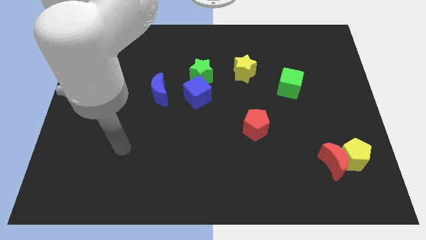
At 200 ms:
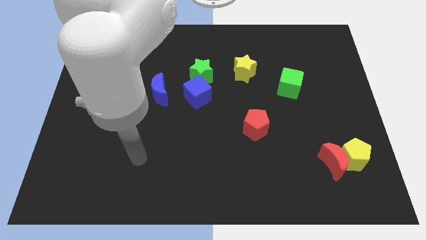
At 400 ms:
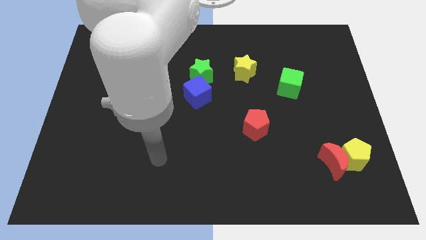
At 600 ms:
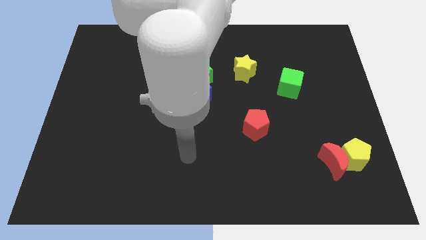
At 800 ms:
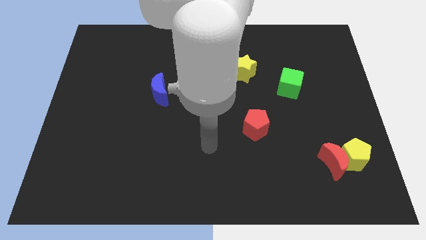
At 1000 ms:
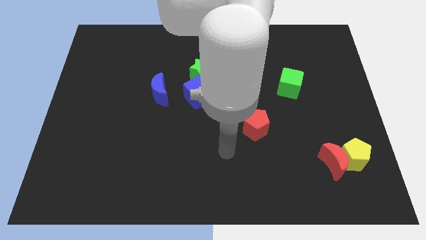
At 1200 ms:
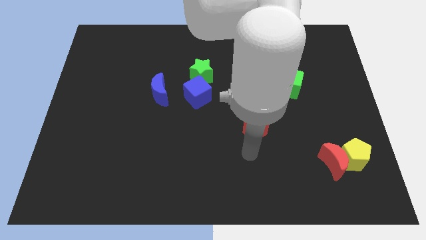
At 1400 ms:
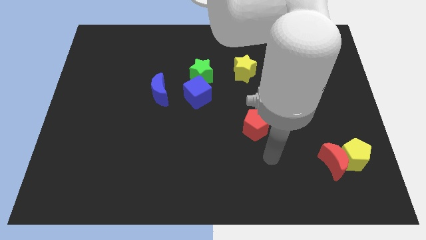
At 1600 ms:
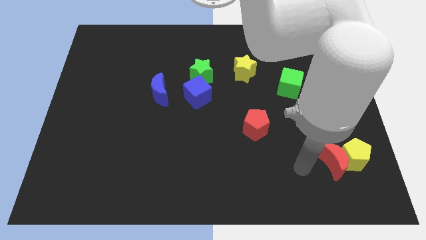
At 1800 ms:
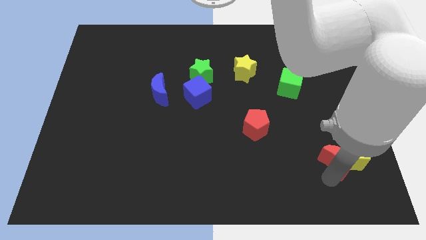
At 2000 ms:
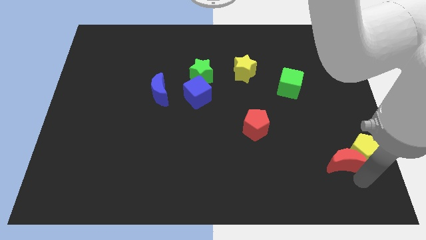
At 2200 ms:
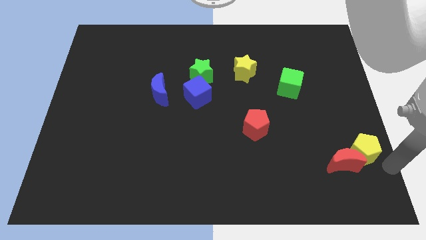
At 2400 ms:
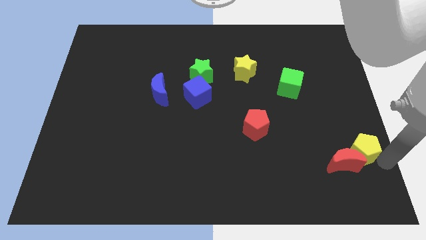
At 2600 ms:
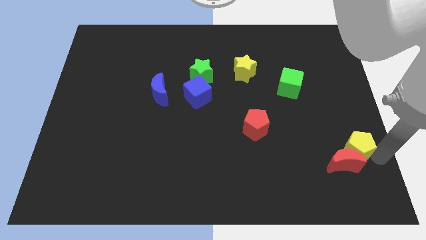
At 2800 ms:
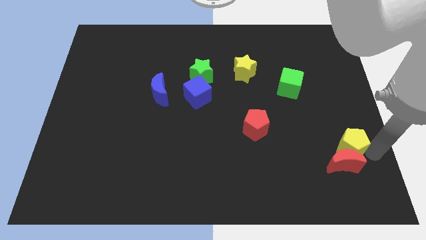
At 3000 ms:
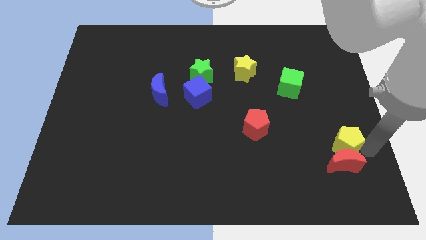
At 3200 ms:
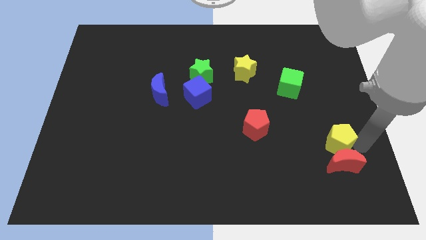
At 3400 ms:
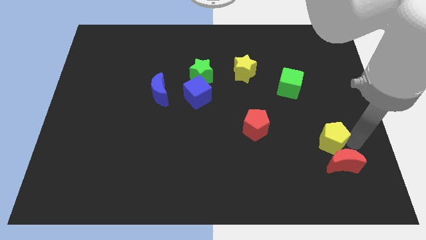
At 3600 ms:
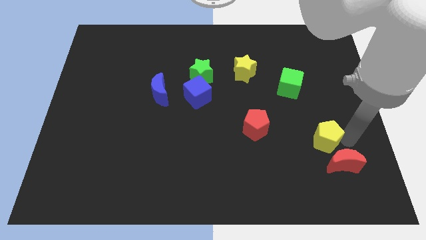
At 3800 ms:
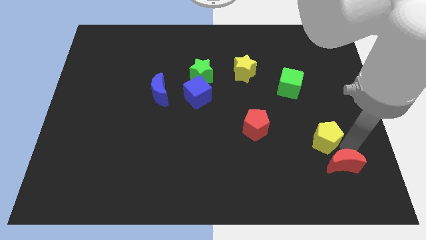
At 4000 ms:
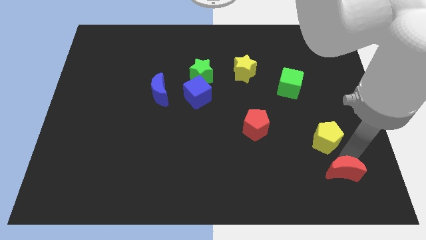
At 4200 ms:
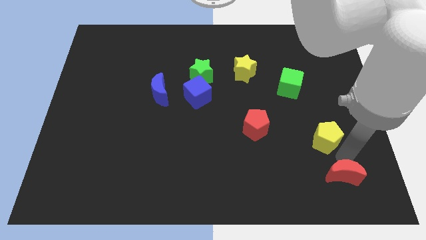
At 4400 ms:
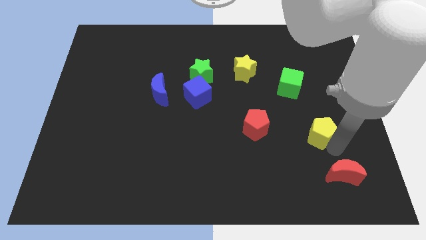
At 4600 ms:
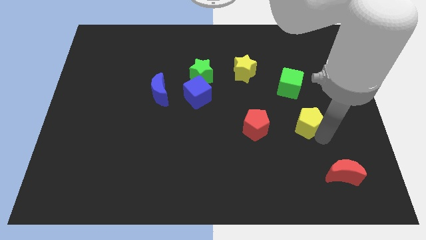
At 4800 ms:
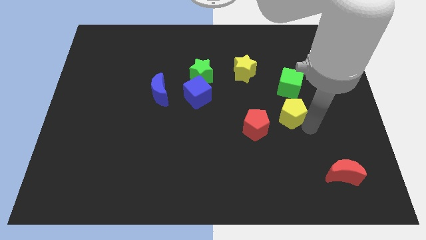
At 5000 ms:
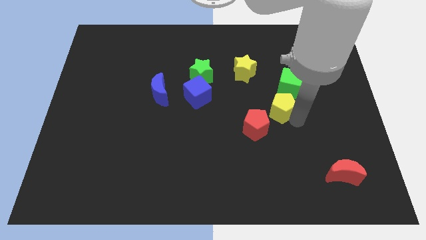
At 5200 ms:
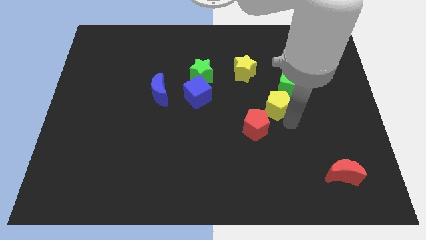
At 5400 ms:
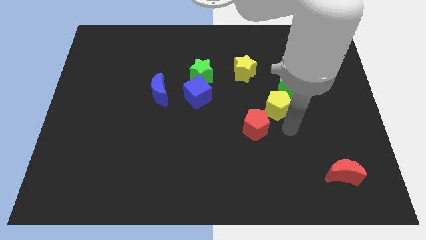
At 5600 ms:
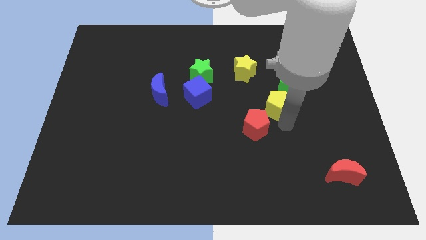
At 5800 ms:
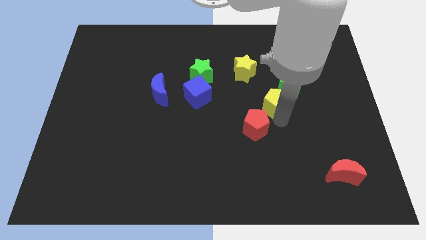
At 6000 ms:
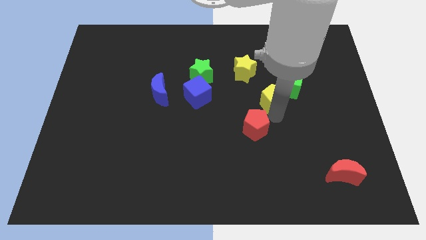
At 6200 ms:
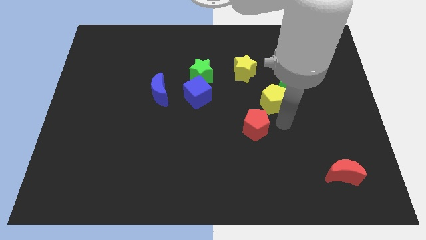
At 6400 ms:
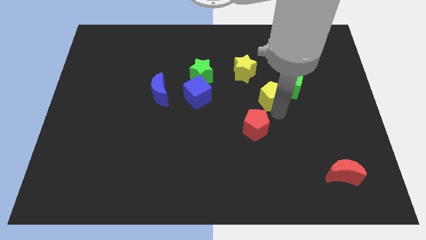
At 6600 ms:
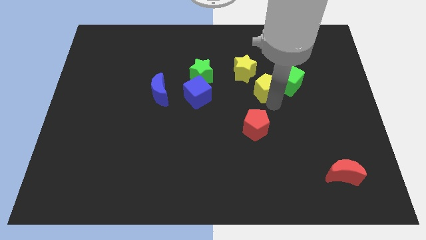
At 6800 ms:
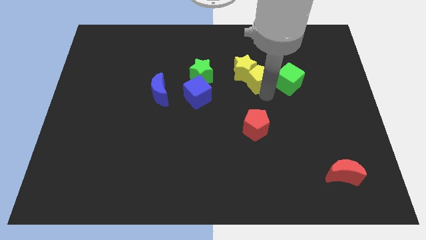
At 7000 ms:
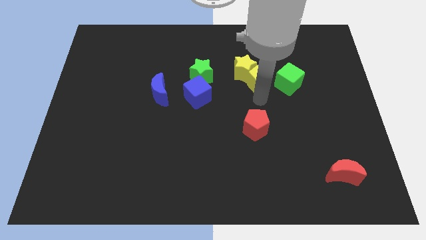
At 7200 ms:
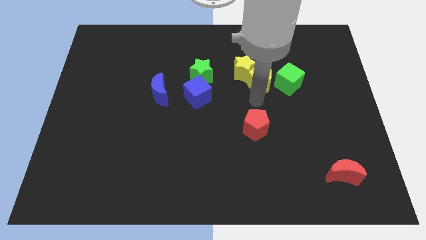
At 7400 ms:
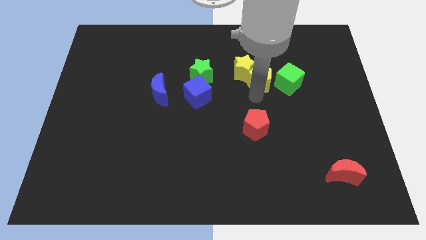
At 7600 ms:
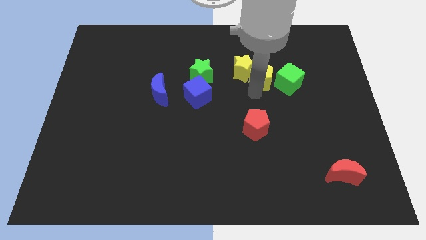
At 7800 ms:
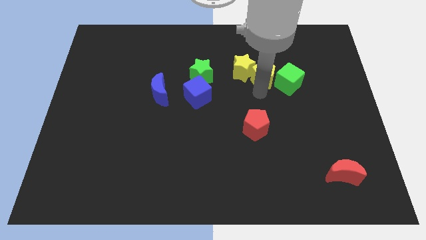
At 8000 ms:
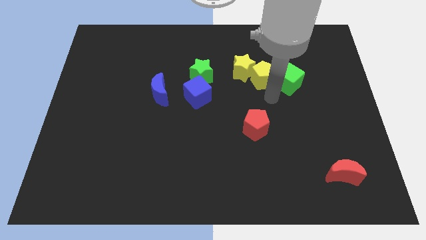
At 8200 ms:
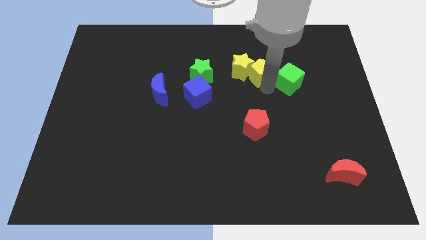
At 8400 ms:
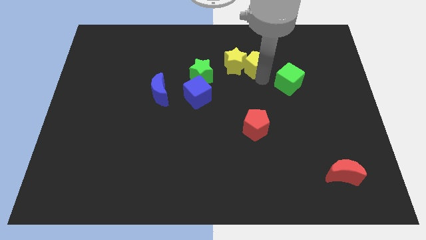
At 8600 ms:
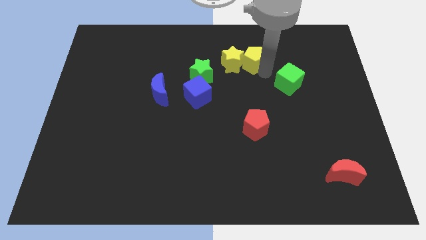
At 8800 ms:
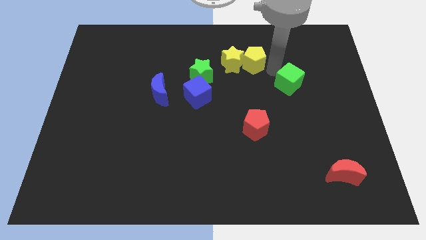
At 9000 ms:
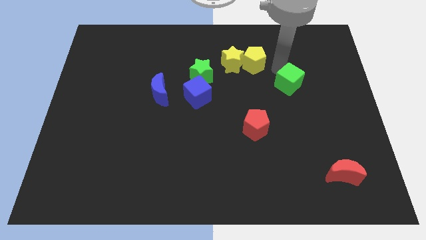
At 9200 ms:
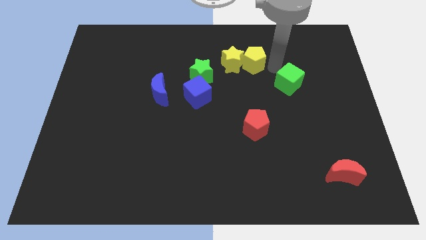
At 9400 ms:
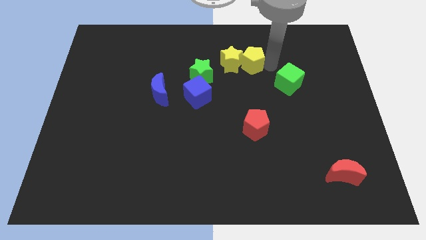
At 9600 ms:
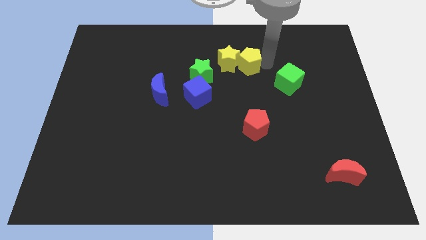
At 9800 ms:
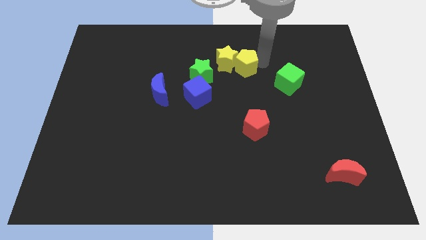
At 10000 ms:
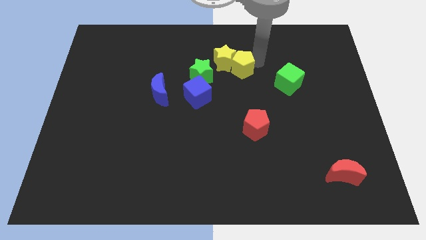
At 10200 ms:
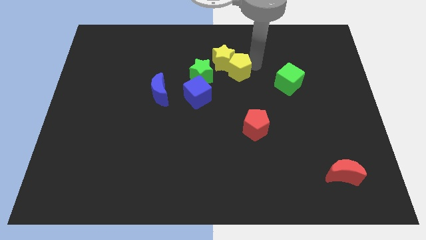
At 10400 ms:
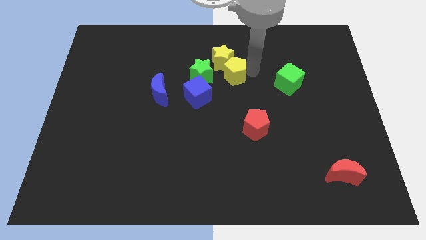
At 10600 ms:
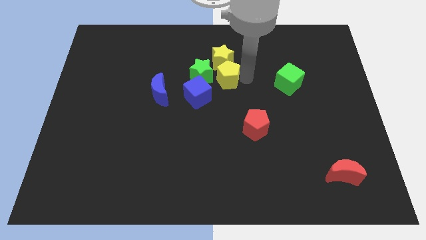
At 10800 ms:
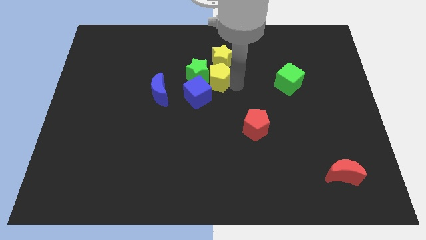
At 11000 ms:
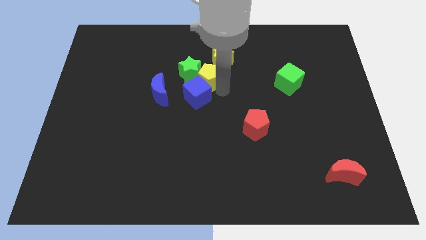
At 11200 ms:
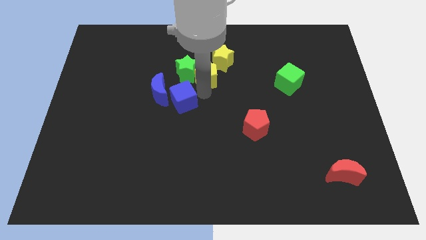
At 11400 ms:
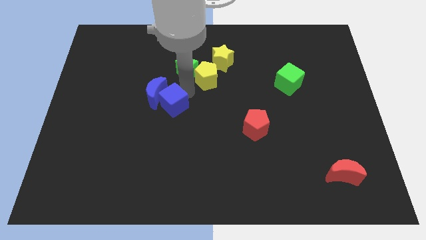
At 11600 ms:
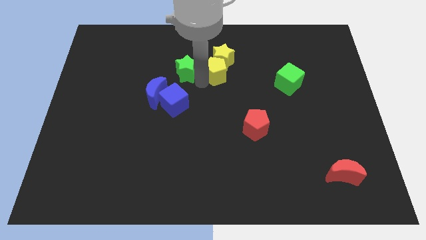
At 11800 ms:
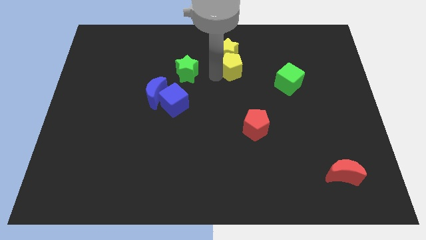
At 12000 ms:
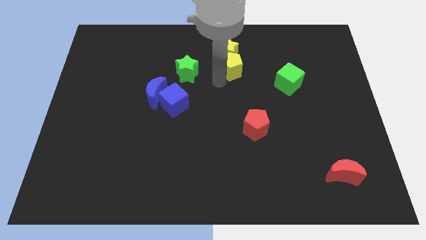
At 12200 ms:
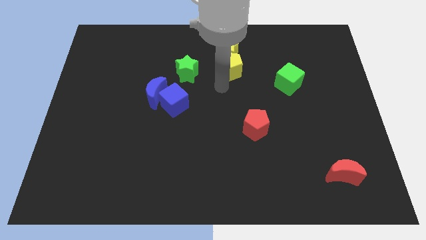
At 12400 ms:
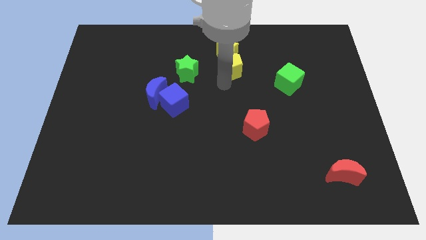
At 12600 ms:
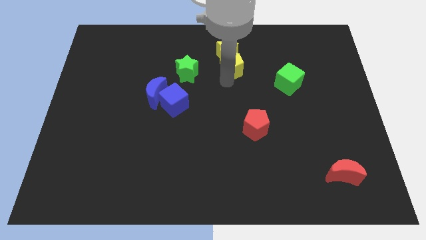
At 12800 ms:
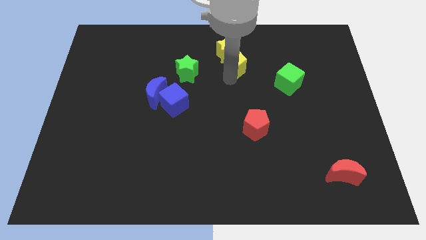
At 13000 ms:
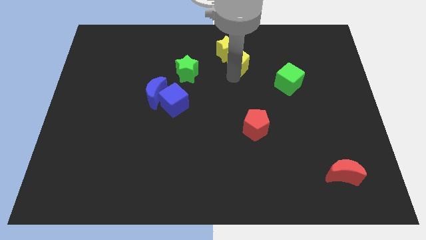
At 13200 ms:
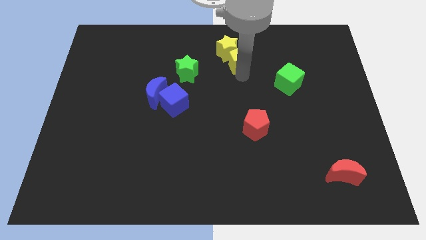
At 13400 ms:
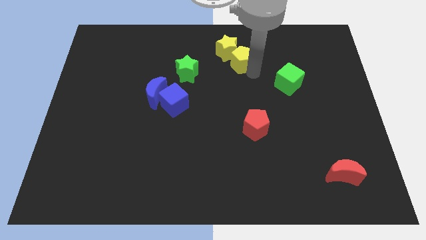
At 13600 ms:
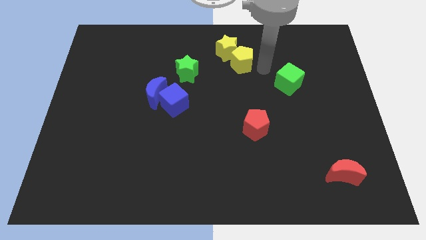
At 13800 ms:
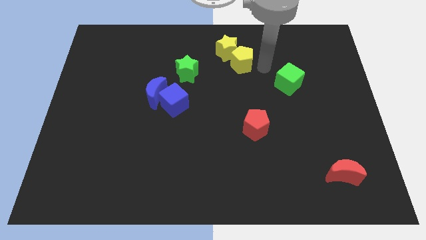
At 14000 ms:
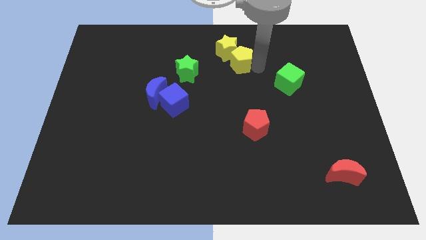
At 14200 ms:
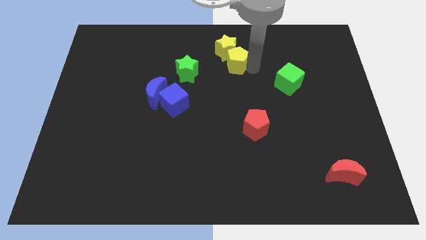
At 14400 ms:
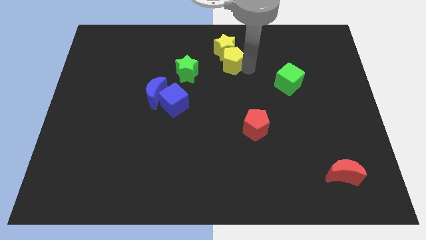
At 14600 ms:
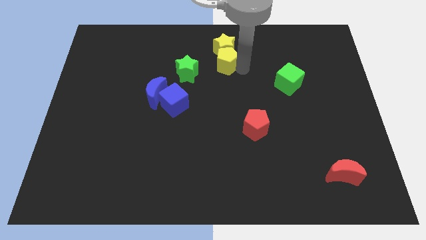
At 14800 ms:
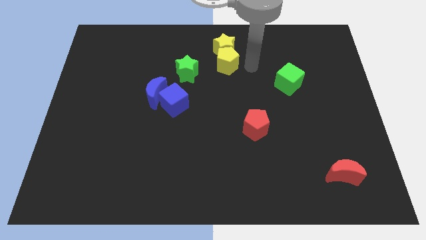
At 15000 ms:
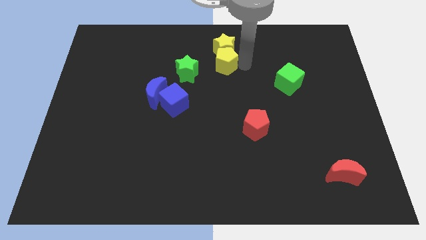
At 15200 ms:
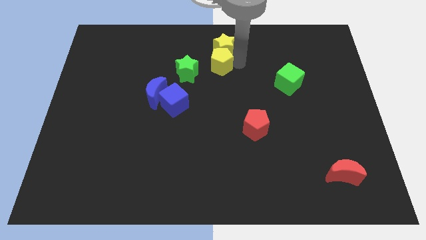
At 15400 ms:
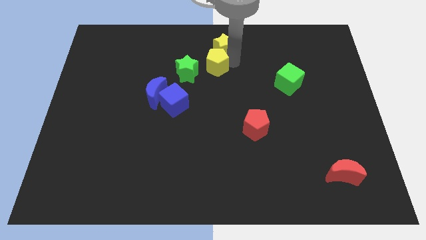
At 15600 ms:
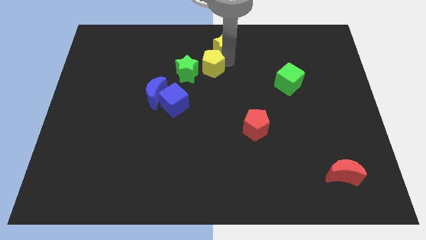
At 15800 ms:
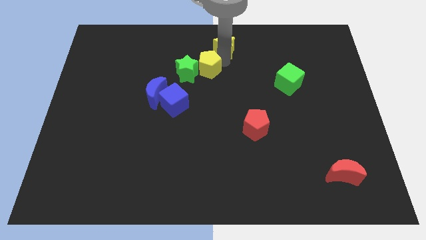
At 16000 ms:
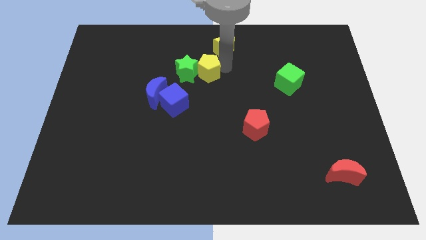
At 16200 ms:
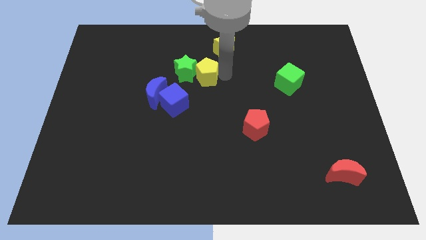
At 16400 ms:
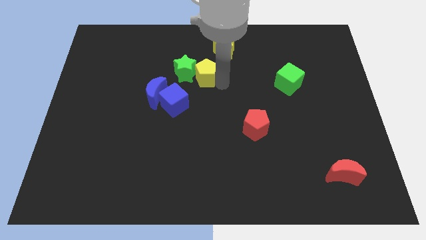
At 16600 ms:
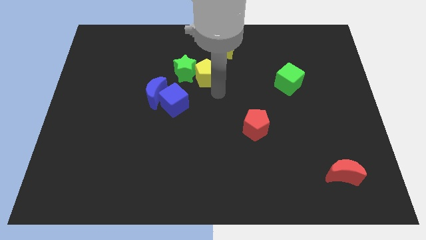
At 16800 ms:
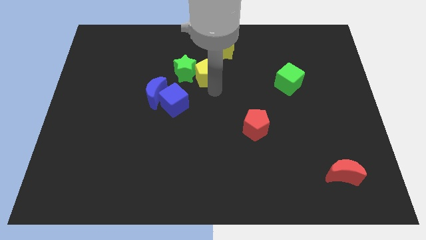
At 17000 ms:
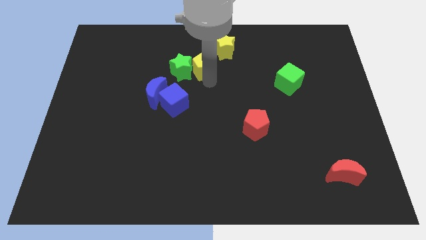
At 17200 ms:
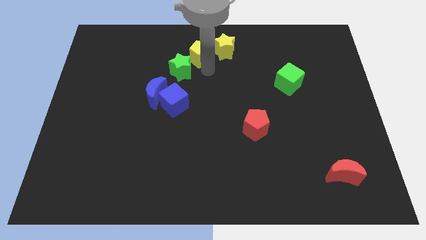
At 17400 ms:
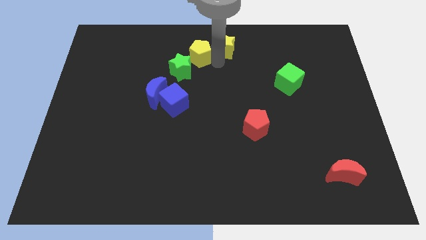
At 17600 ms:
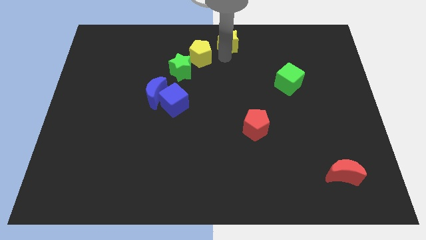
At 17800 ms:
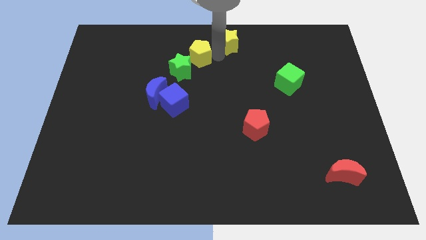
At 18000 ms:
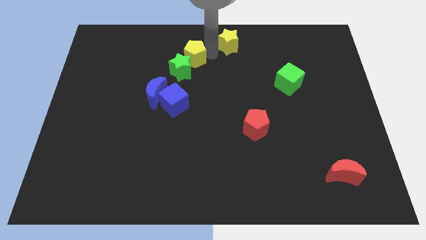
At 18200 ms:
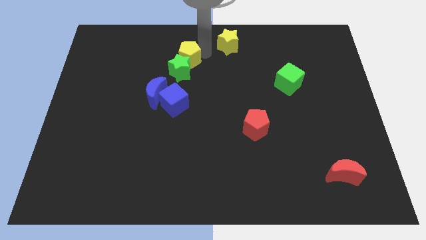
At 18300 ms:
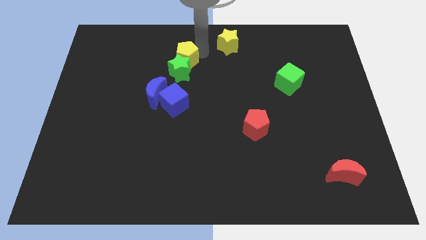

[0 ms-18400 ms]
push the yellow pentagon to the top left side of the green star
